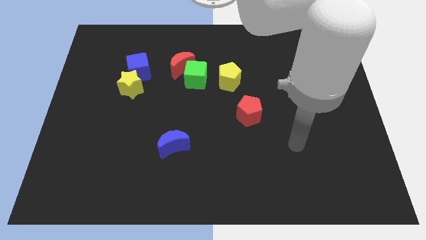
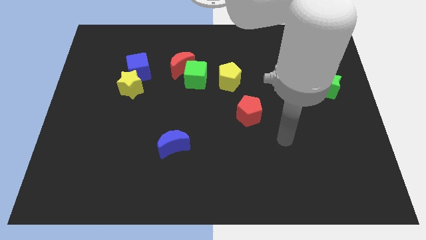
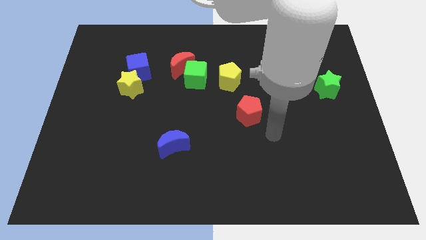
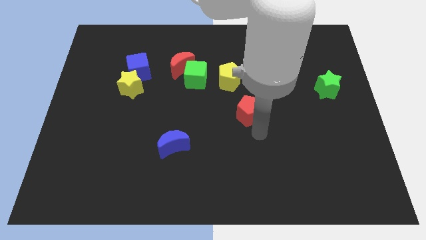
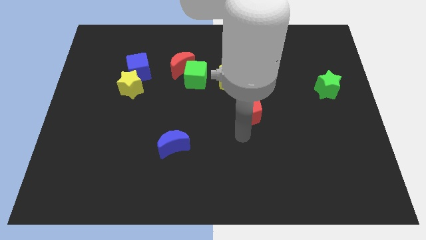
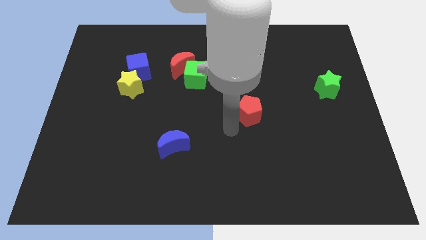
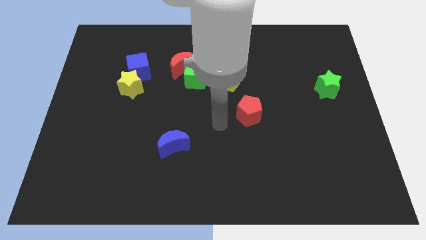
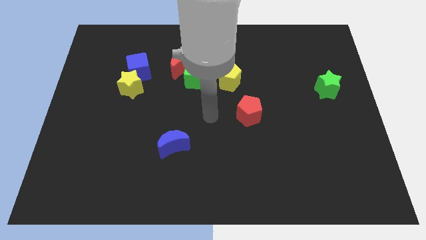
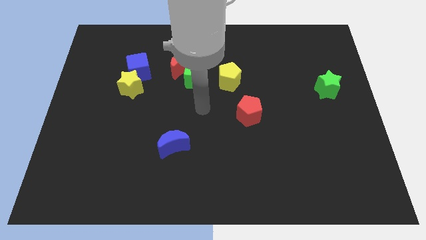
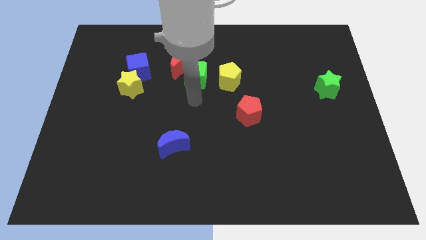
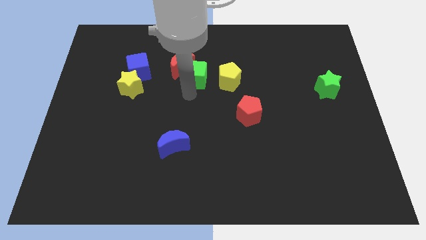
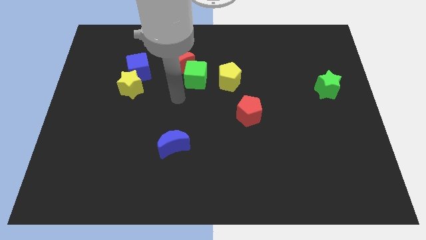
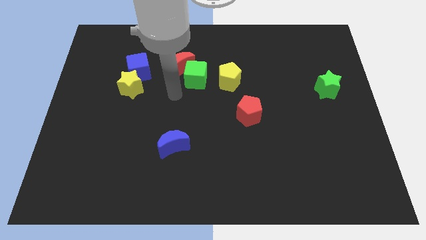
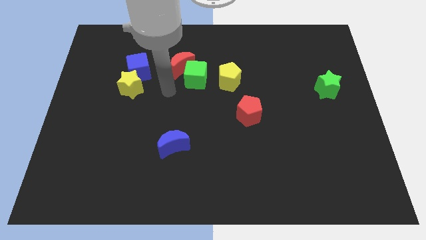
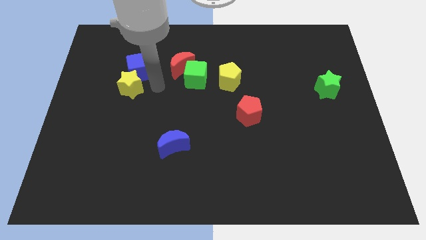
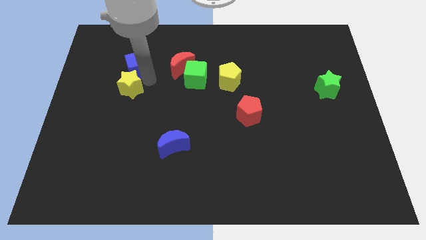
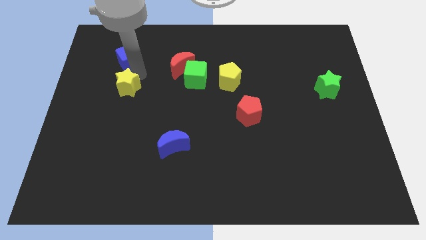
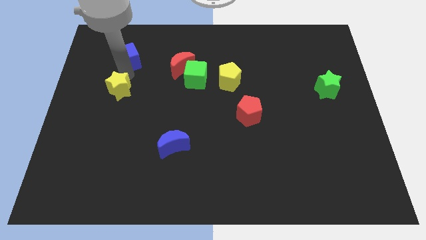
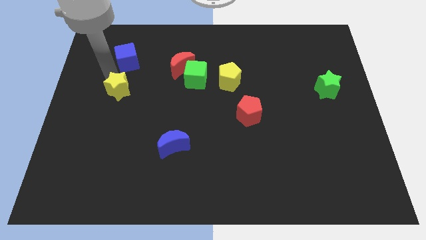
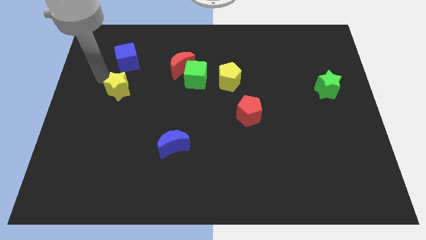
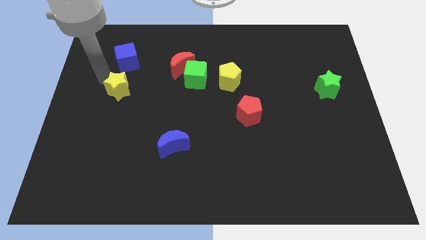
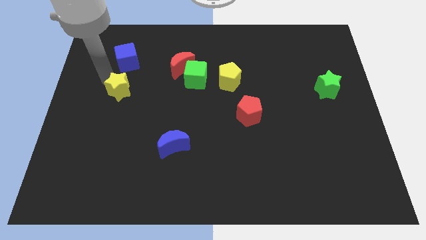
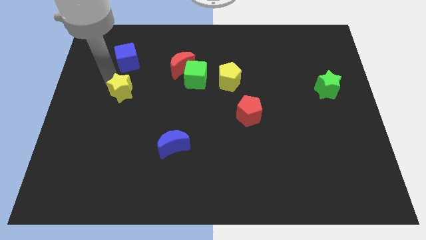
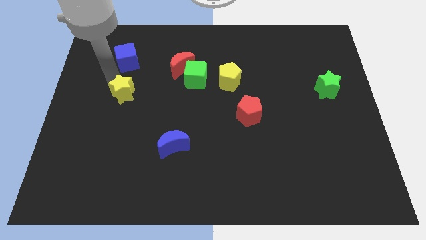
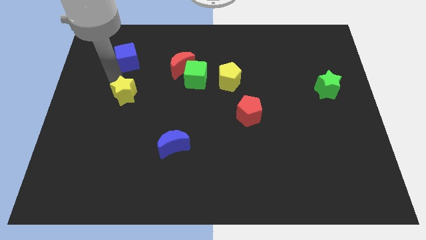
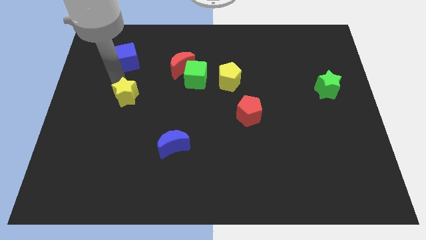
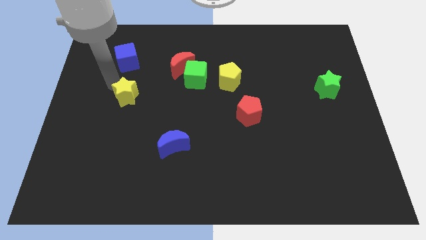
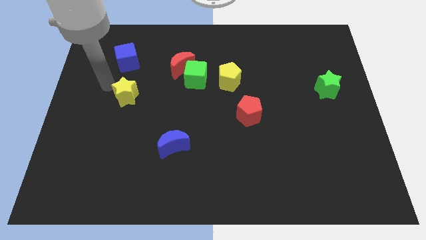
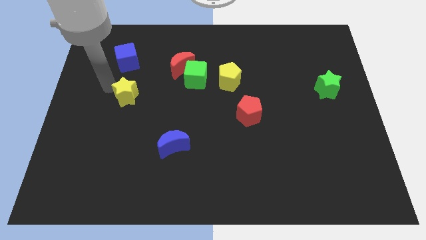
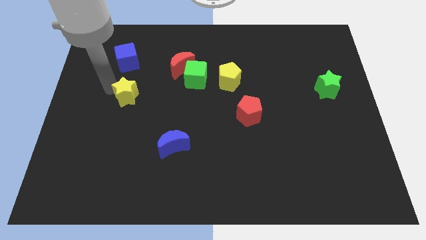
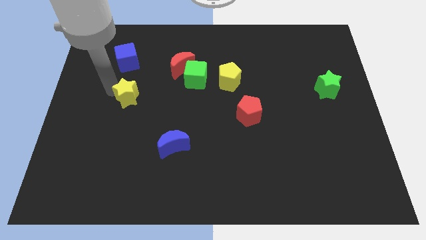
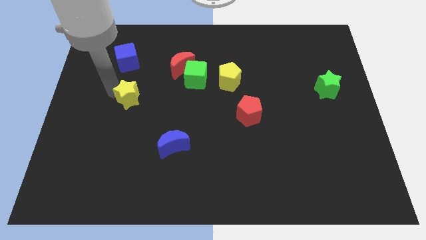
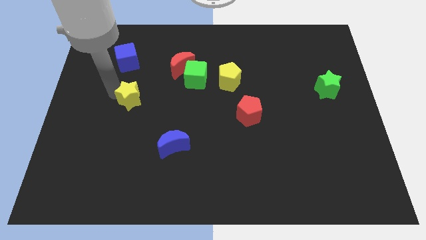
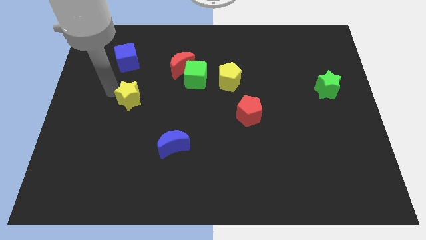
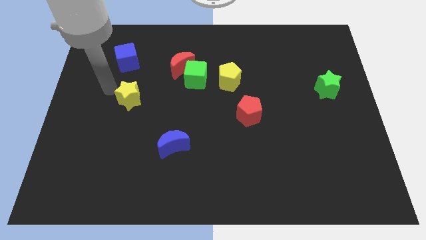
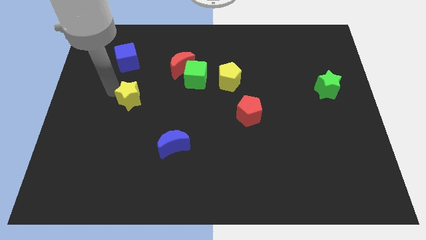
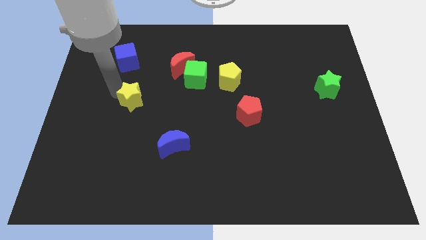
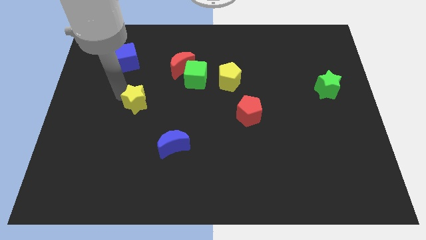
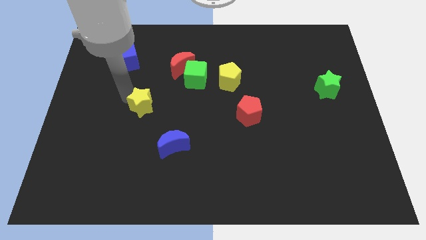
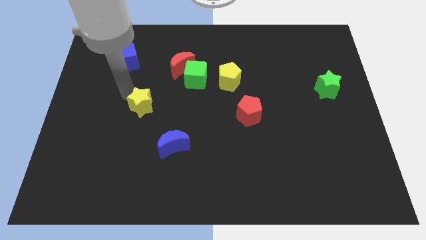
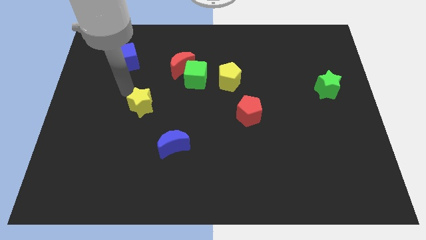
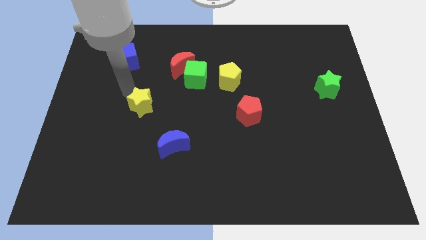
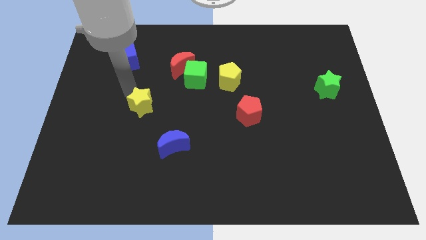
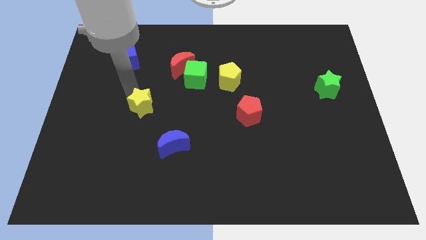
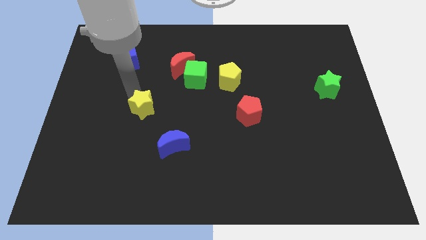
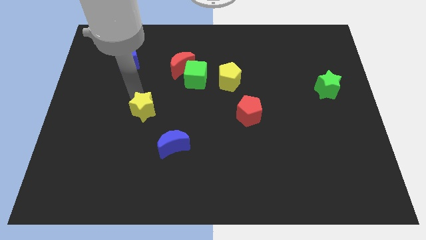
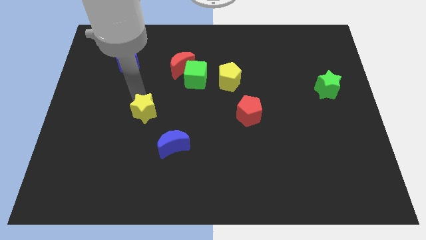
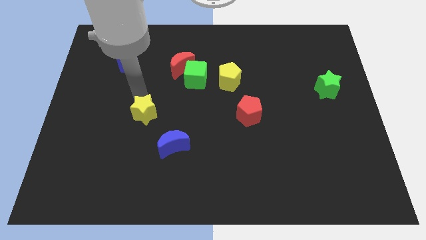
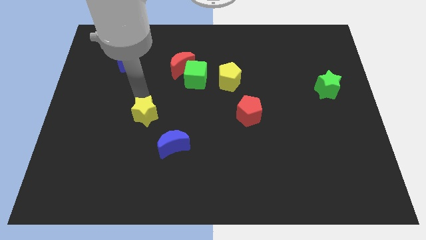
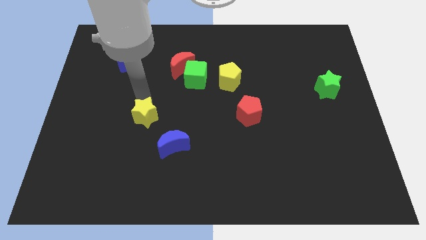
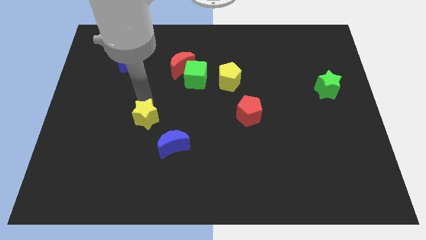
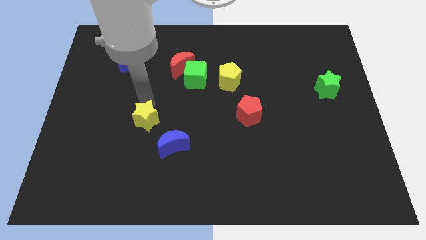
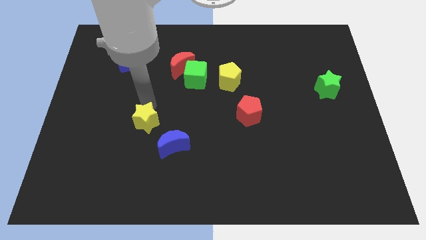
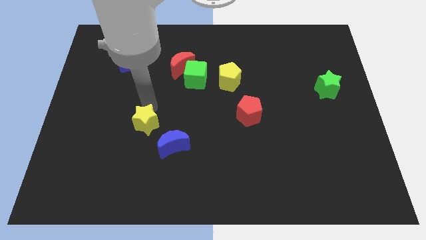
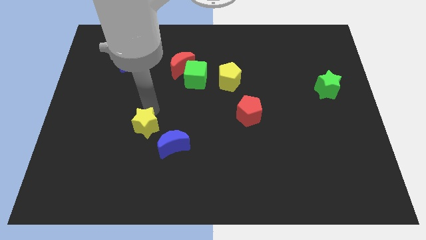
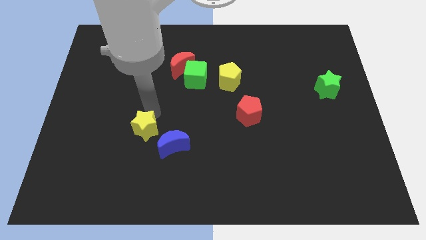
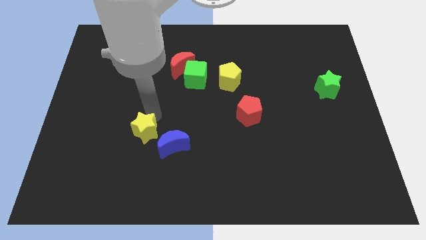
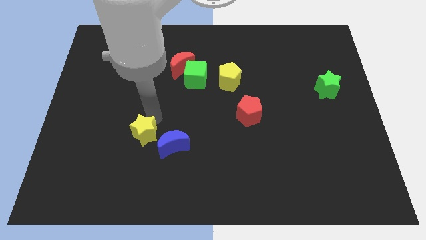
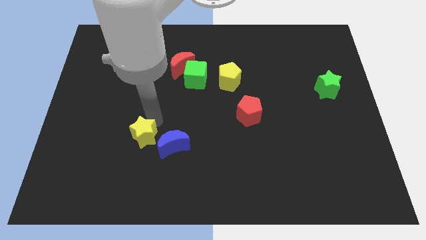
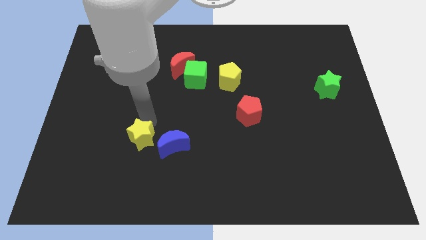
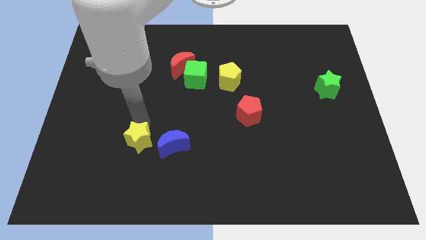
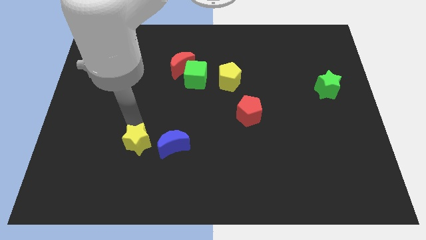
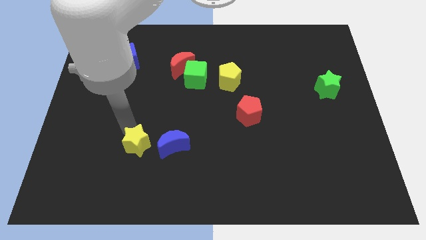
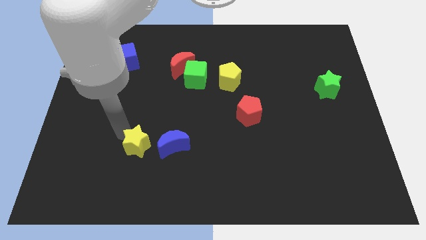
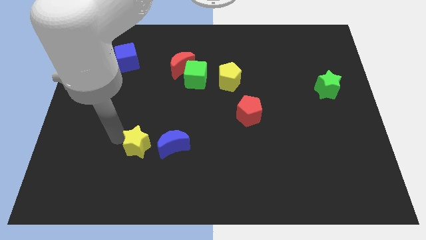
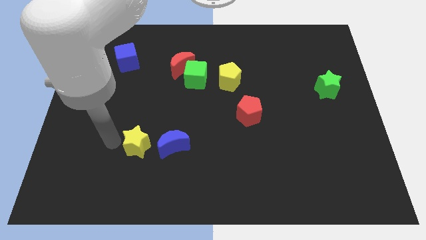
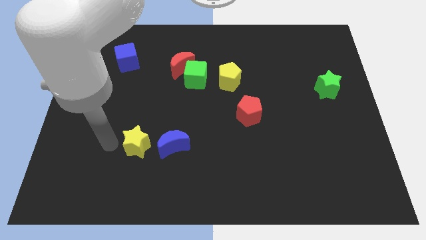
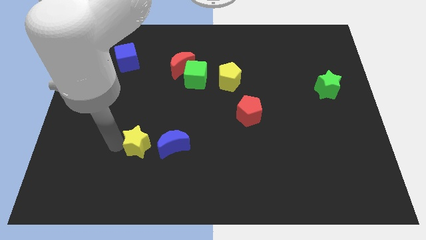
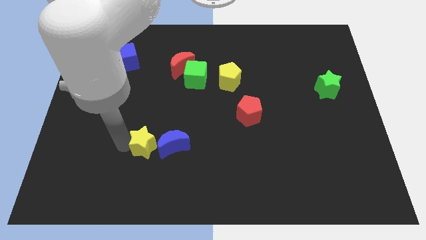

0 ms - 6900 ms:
push the yellow star next to the blue moon
